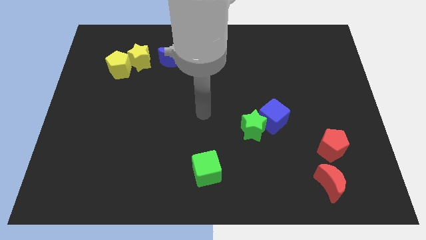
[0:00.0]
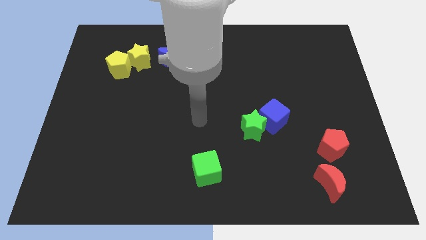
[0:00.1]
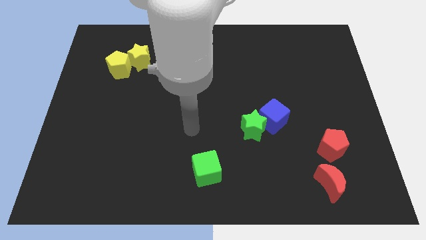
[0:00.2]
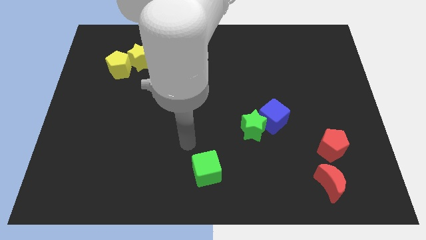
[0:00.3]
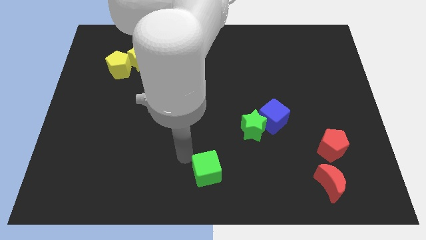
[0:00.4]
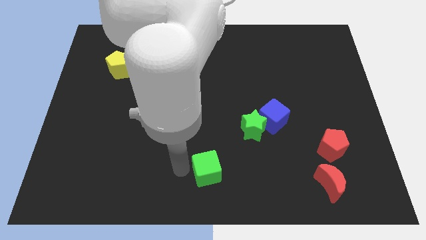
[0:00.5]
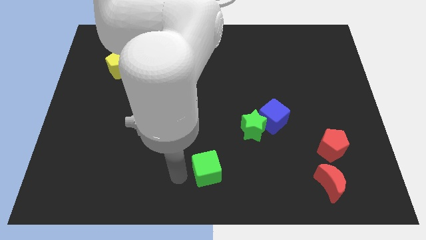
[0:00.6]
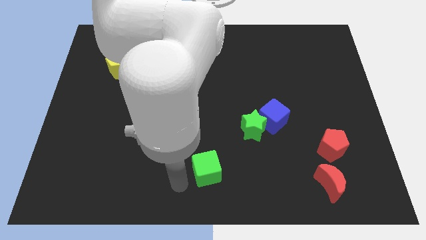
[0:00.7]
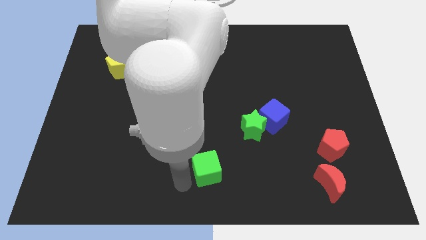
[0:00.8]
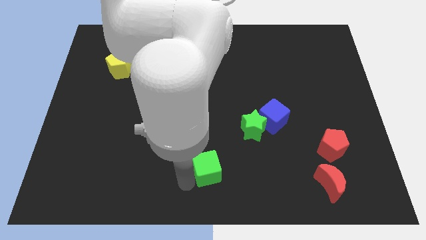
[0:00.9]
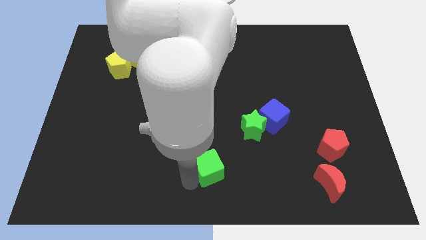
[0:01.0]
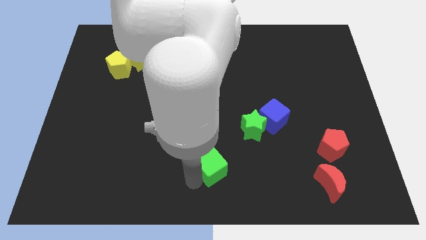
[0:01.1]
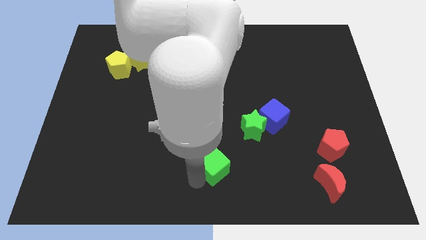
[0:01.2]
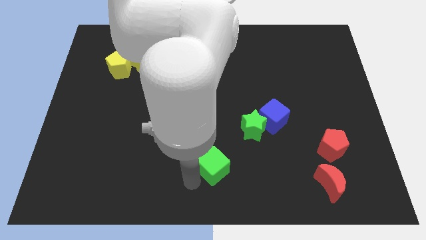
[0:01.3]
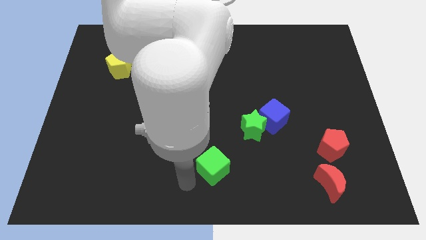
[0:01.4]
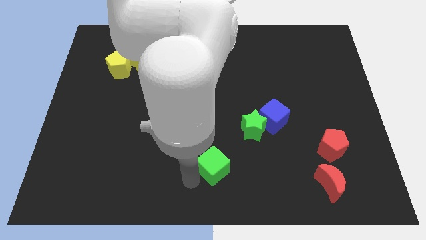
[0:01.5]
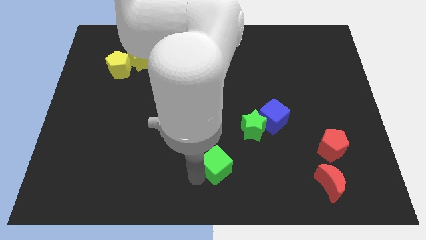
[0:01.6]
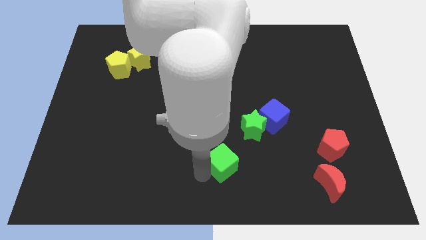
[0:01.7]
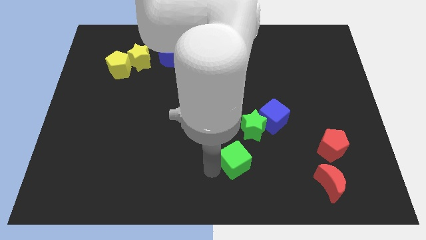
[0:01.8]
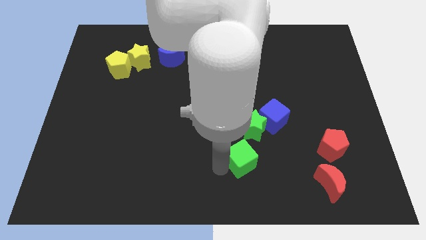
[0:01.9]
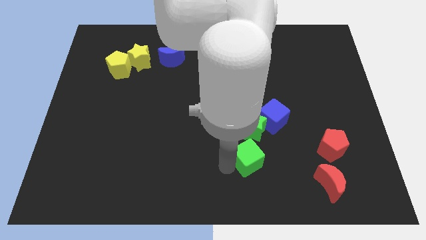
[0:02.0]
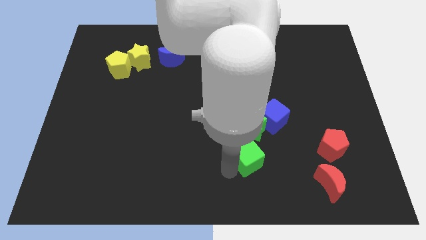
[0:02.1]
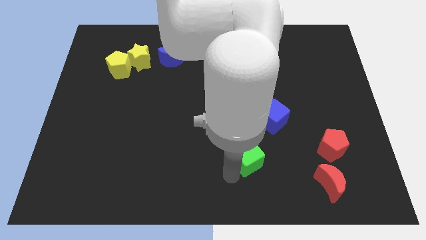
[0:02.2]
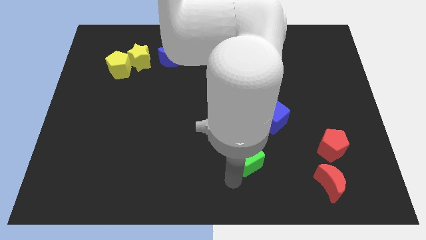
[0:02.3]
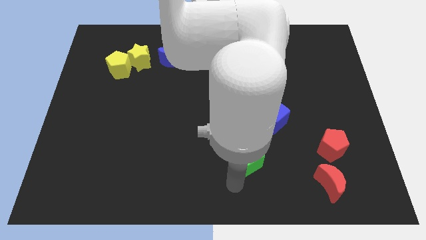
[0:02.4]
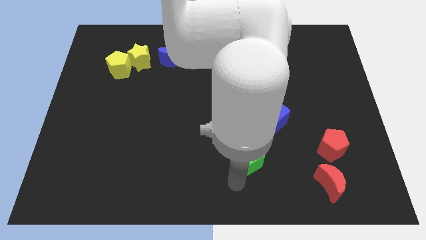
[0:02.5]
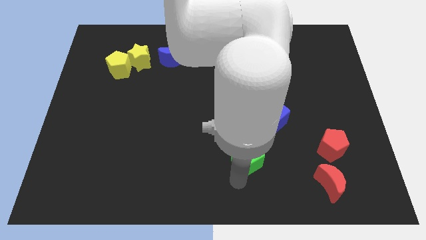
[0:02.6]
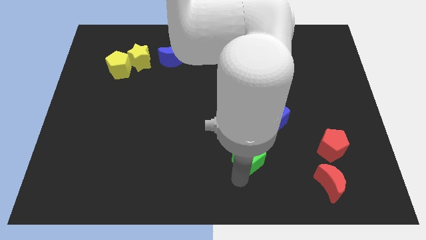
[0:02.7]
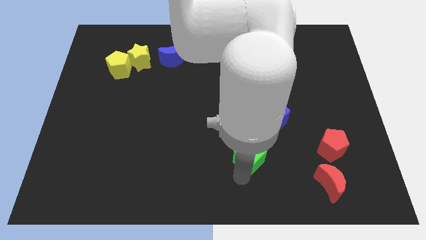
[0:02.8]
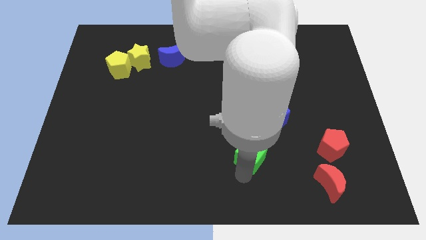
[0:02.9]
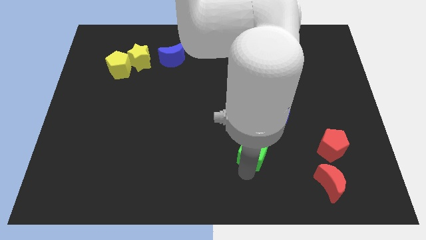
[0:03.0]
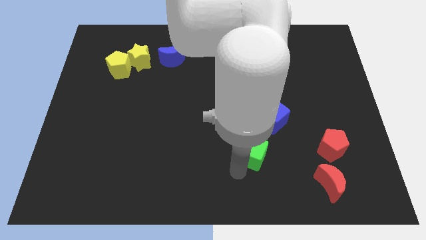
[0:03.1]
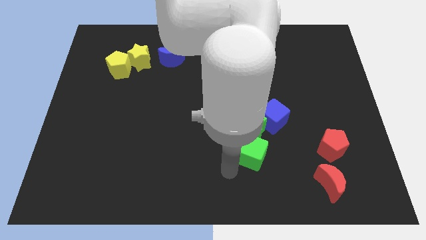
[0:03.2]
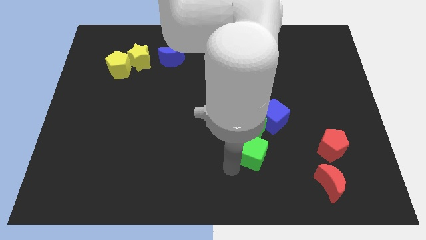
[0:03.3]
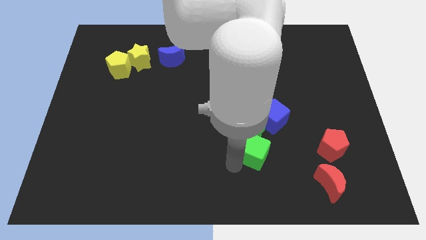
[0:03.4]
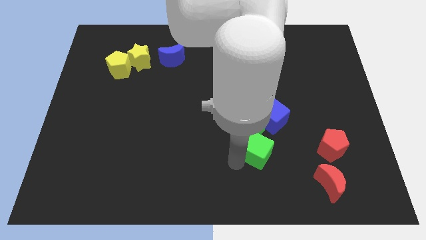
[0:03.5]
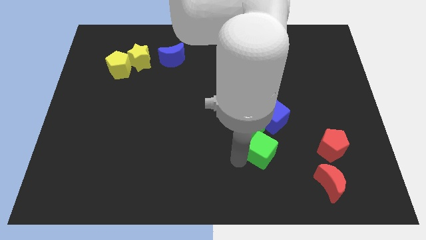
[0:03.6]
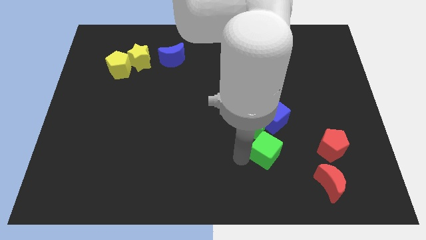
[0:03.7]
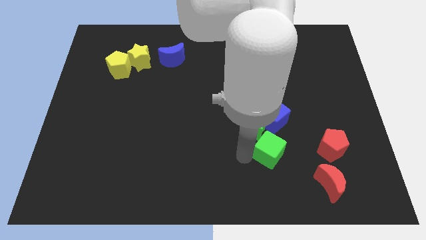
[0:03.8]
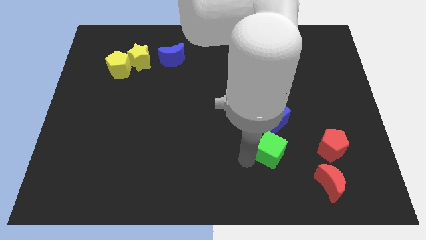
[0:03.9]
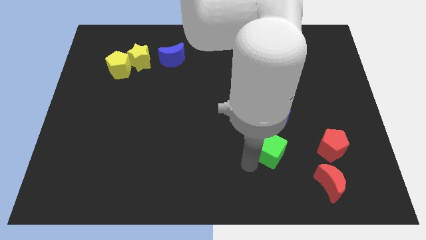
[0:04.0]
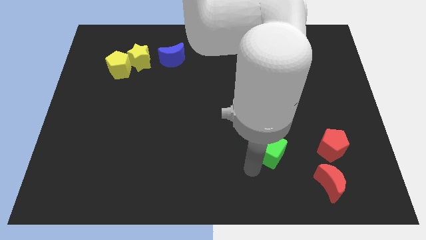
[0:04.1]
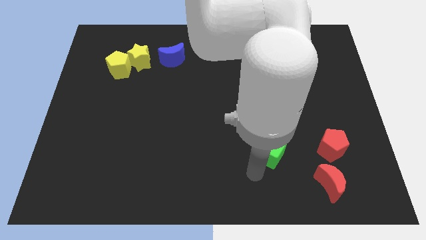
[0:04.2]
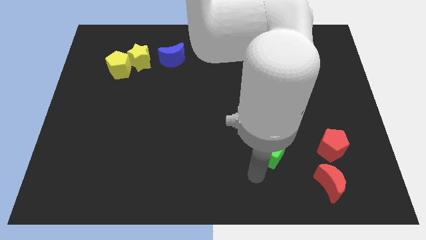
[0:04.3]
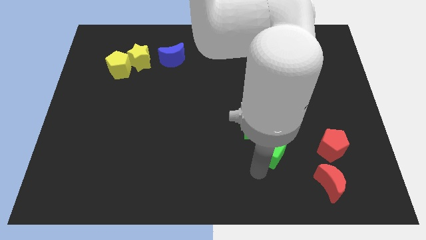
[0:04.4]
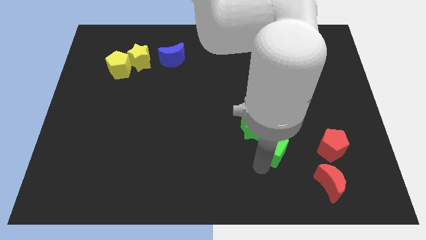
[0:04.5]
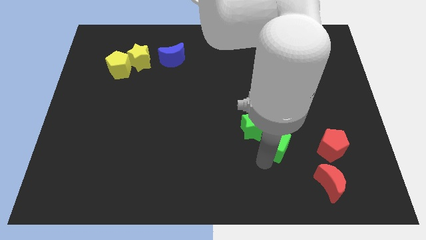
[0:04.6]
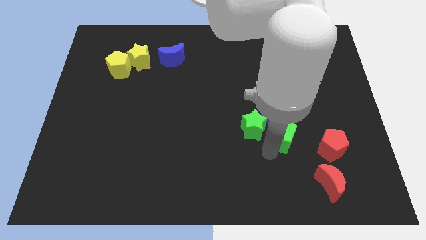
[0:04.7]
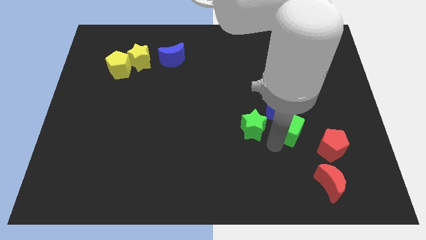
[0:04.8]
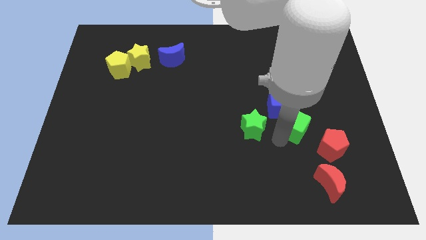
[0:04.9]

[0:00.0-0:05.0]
slide the green cube up and to the right

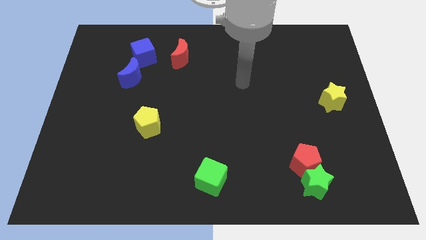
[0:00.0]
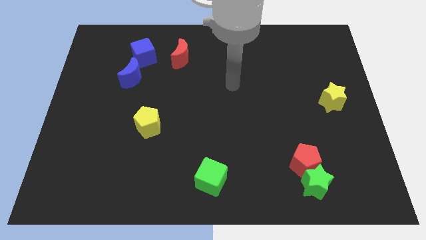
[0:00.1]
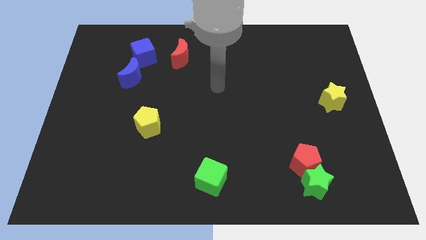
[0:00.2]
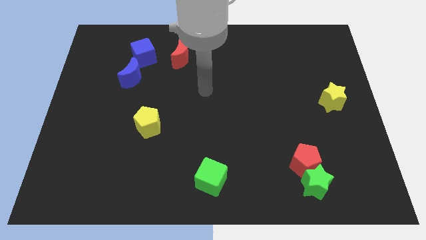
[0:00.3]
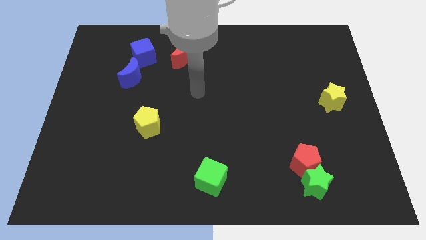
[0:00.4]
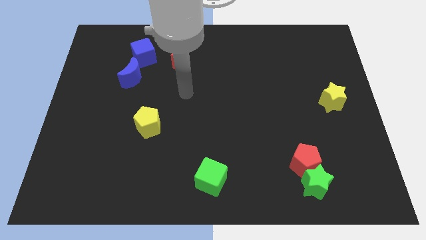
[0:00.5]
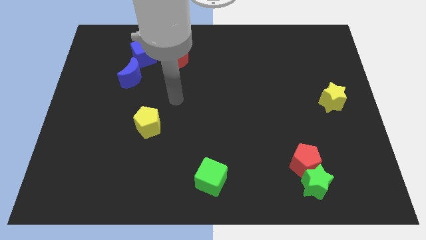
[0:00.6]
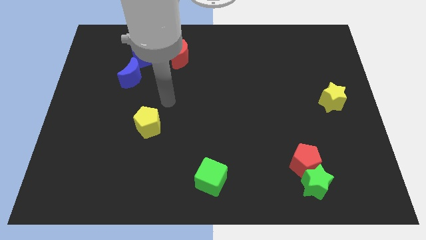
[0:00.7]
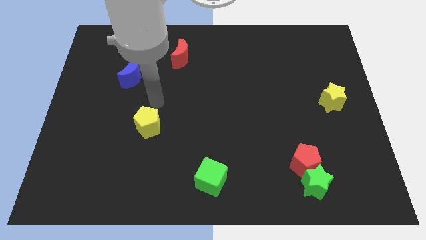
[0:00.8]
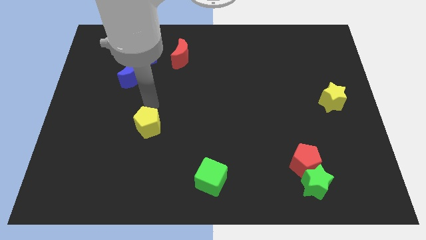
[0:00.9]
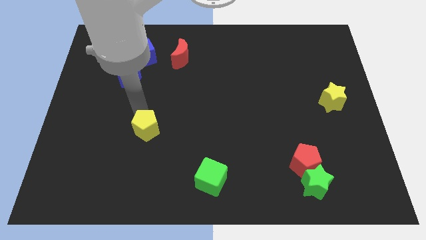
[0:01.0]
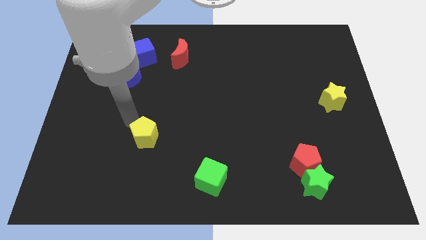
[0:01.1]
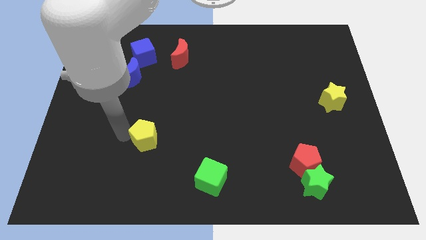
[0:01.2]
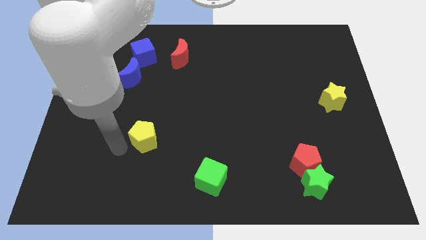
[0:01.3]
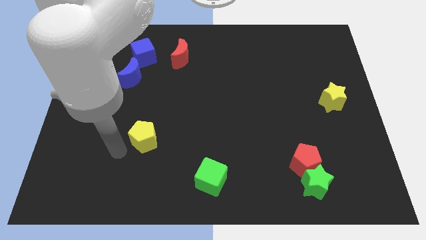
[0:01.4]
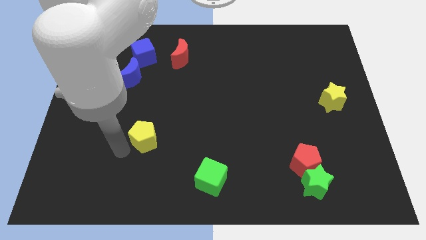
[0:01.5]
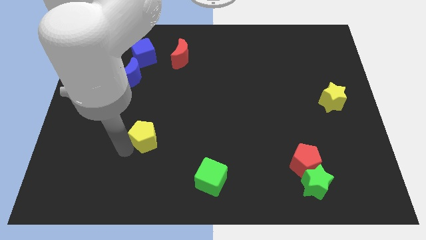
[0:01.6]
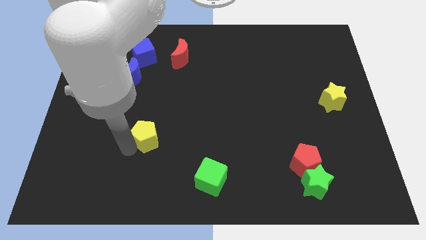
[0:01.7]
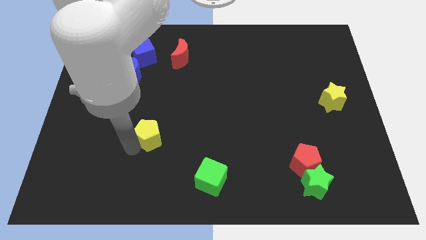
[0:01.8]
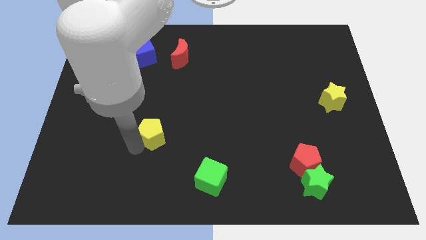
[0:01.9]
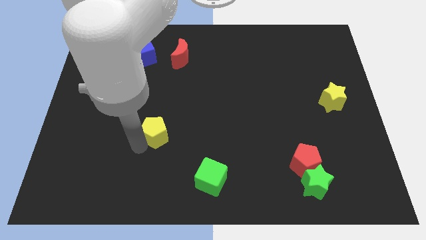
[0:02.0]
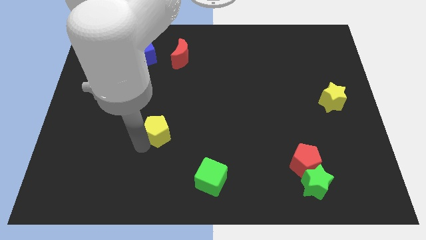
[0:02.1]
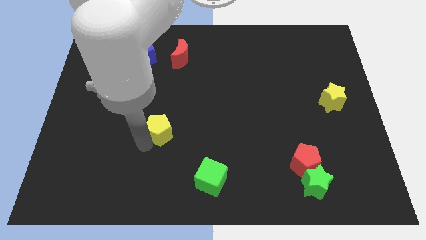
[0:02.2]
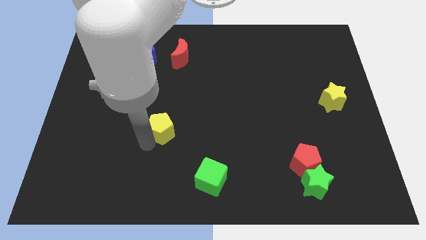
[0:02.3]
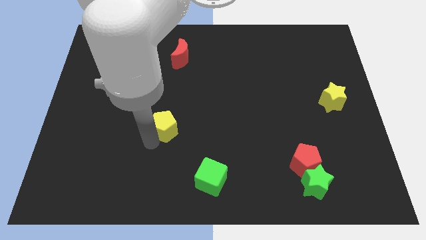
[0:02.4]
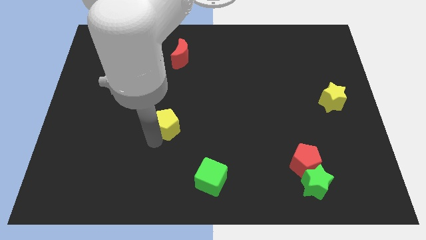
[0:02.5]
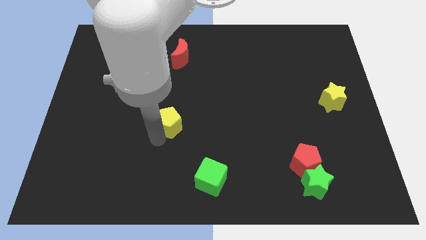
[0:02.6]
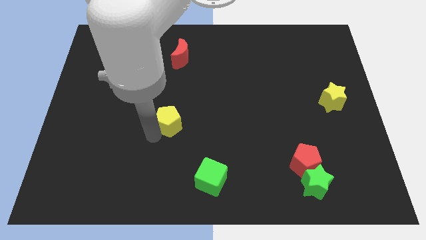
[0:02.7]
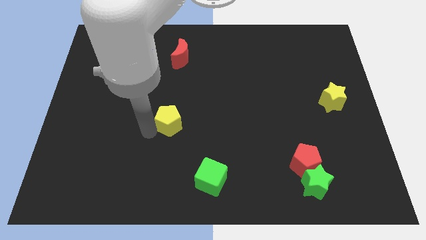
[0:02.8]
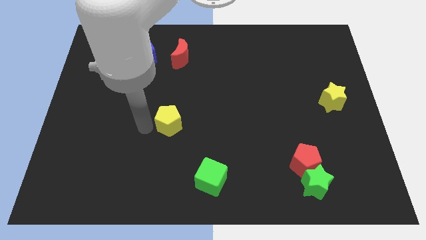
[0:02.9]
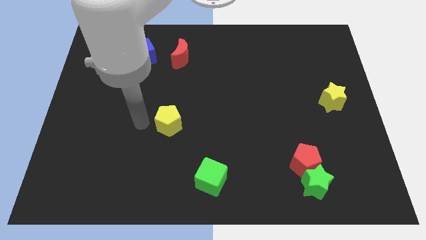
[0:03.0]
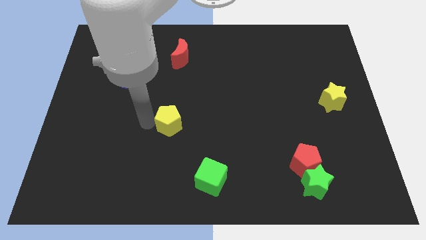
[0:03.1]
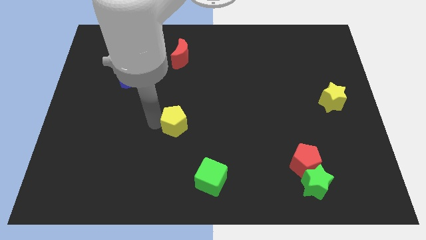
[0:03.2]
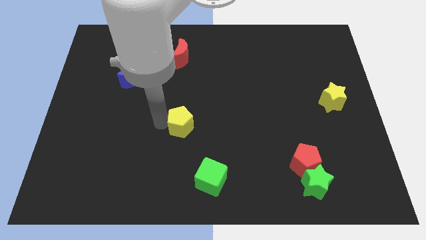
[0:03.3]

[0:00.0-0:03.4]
move the yellow pentagon slightly right
